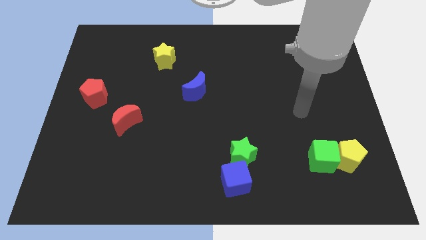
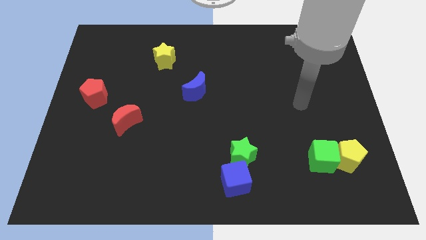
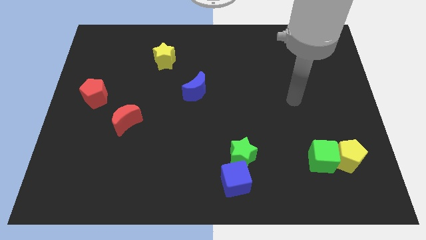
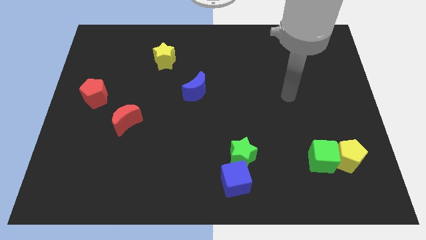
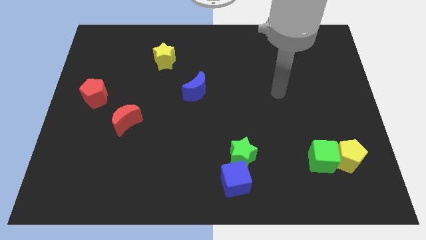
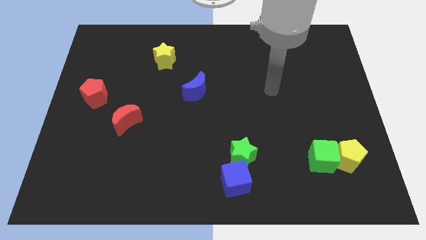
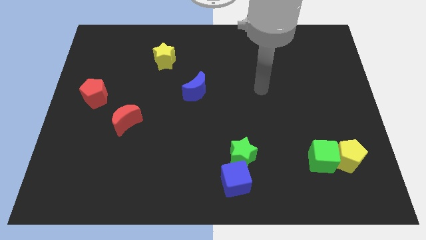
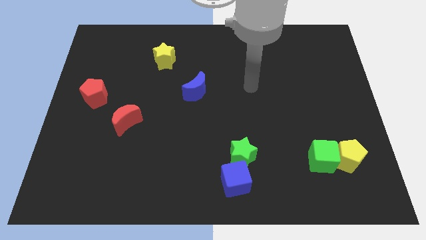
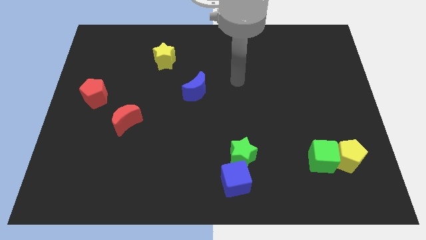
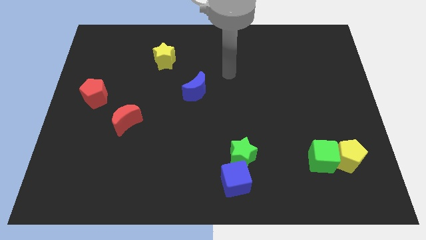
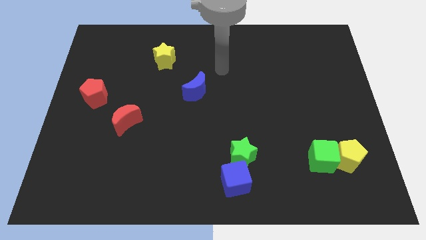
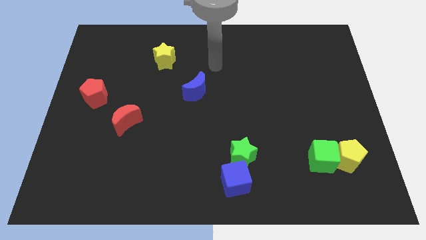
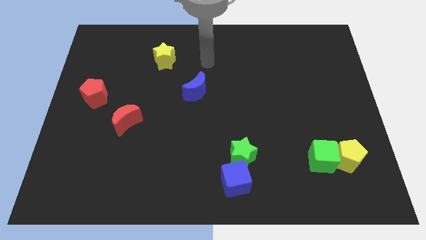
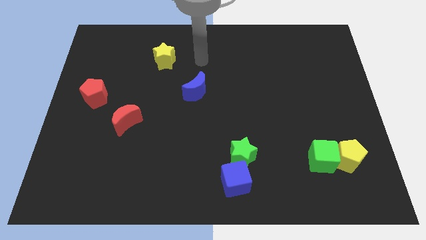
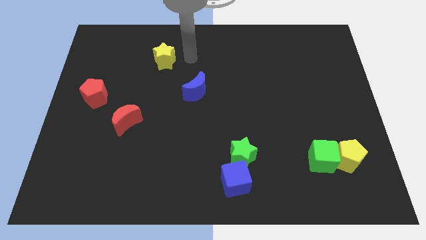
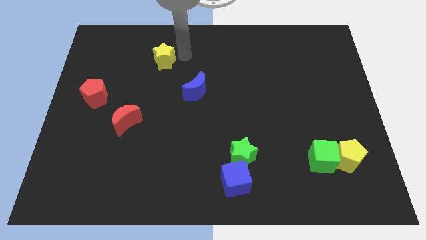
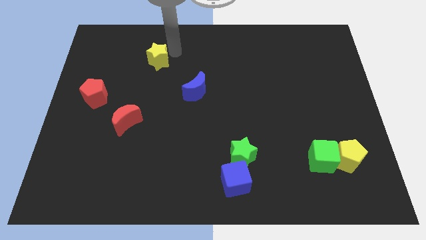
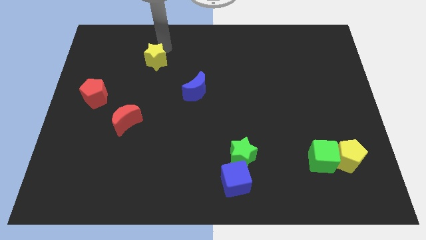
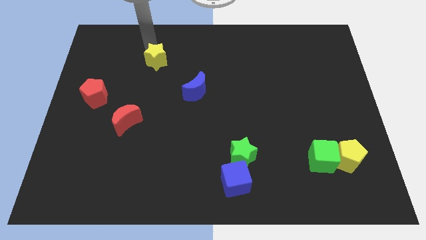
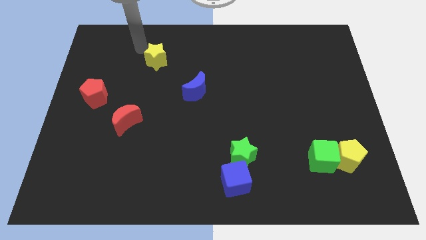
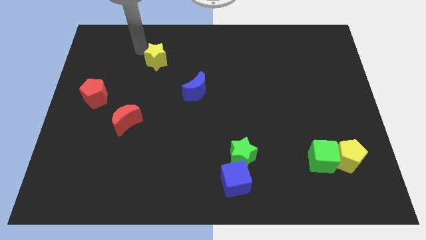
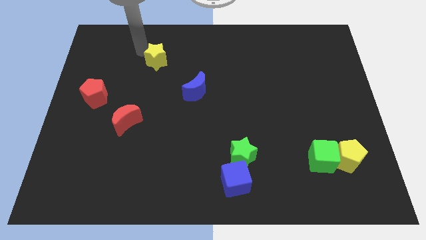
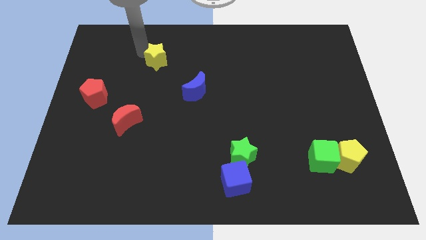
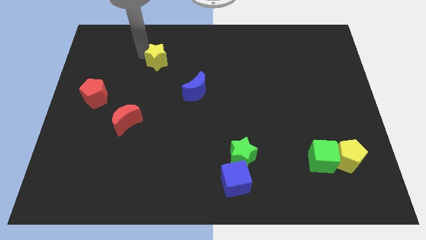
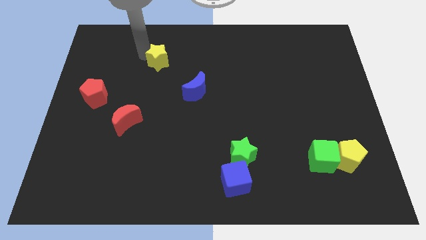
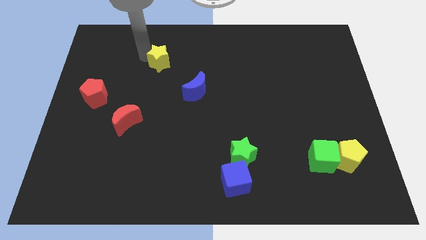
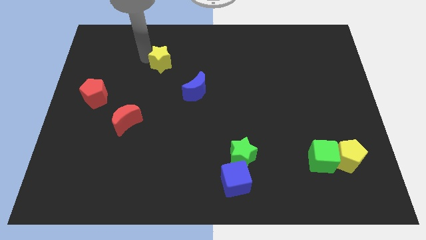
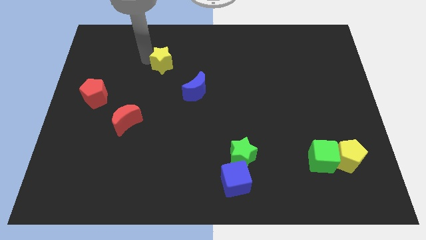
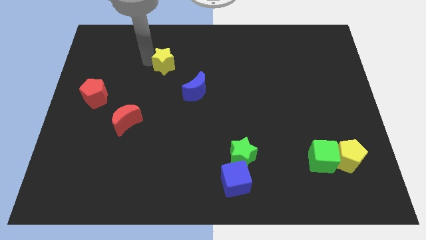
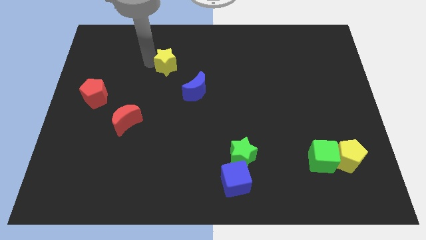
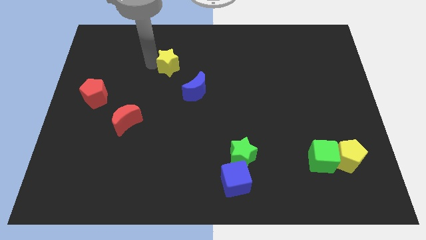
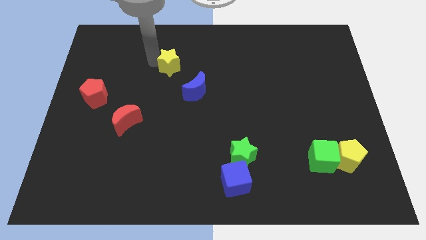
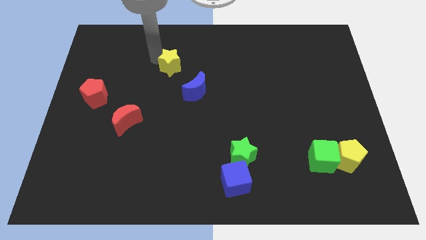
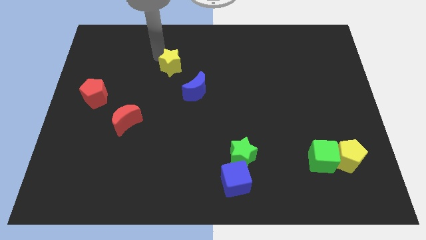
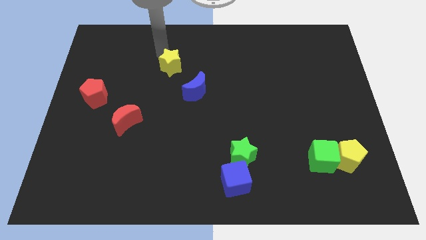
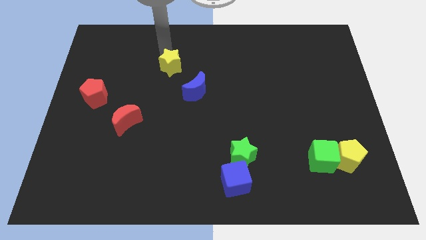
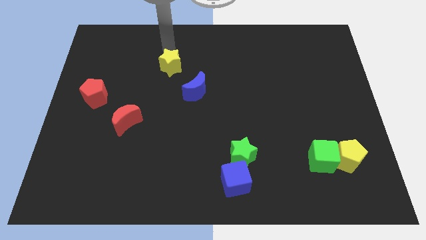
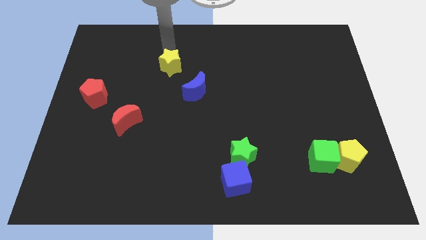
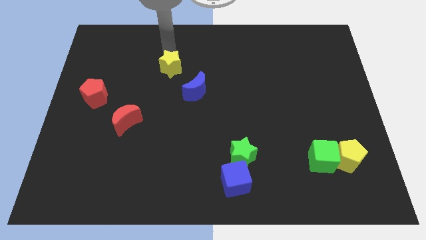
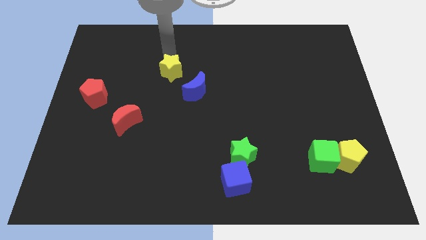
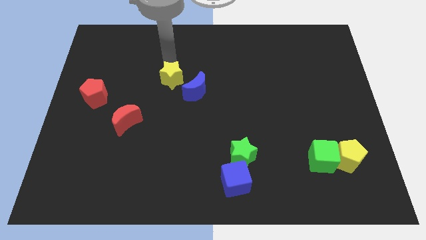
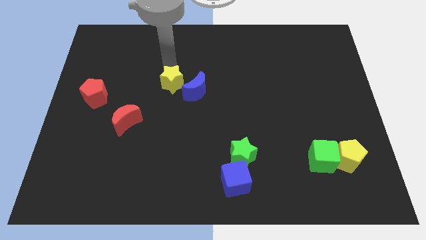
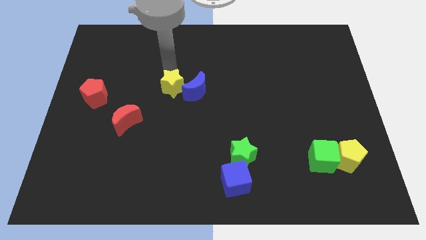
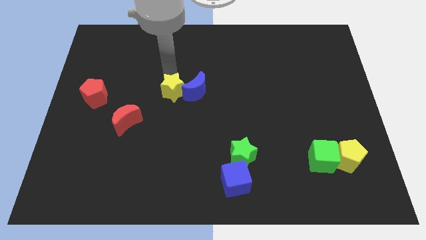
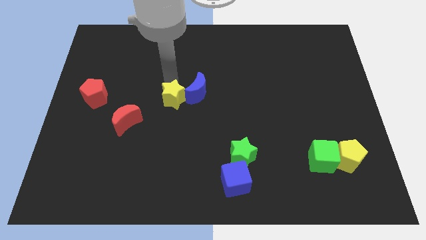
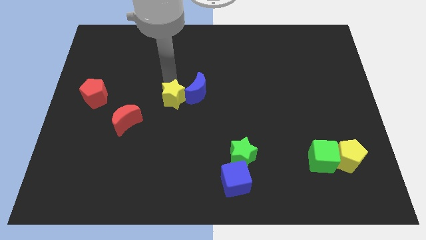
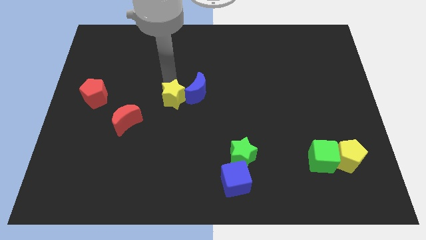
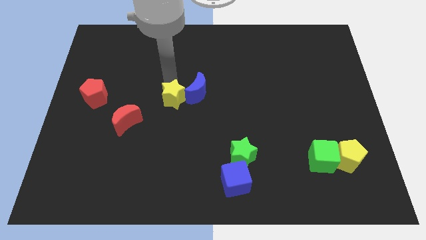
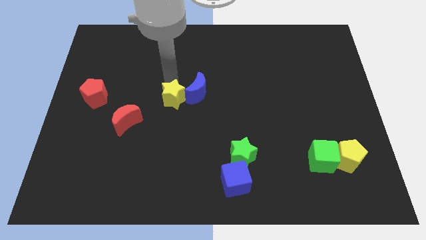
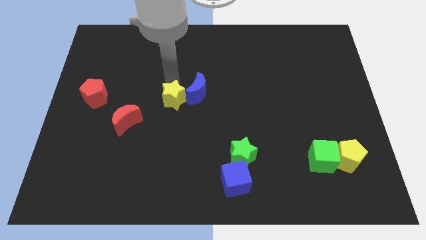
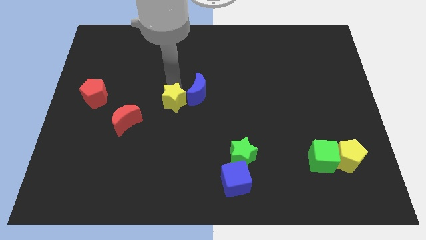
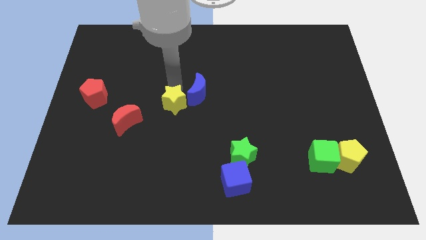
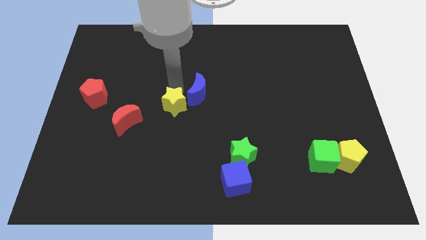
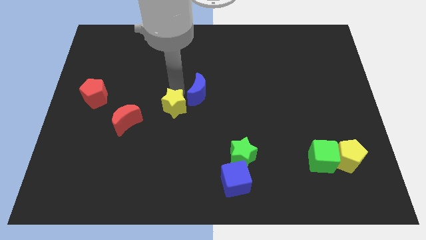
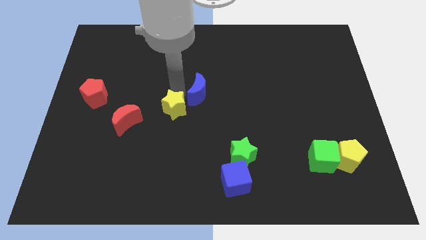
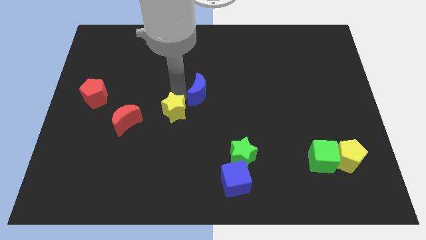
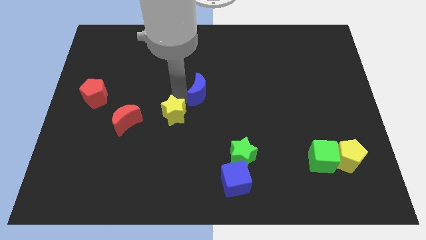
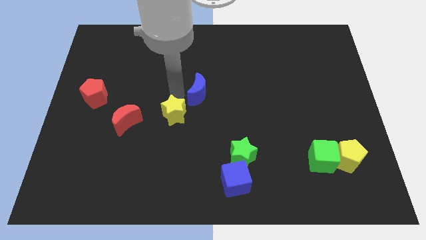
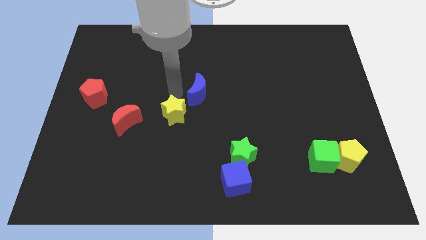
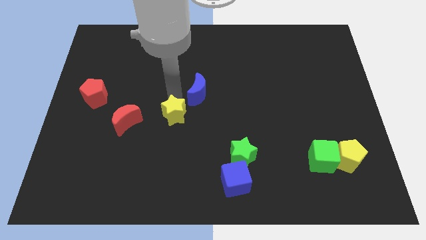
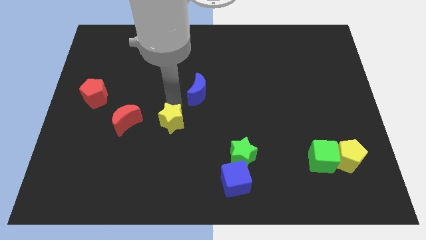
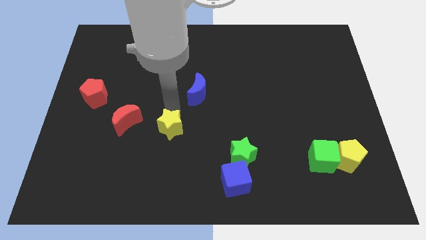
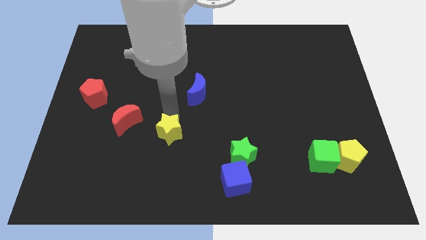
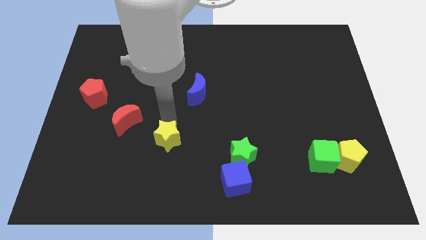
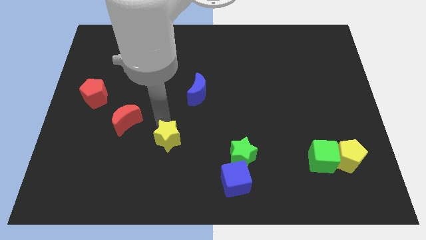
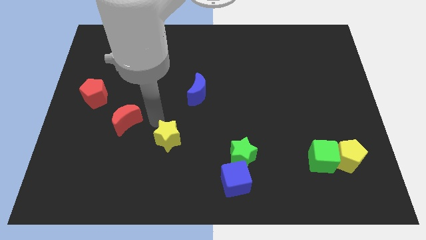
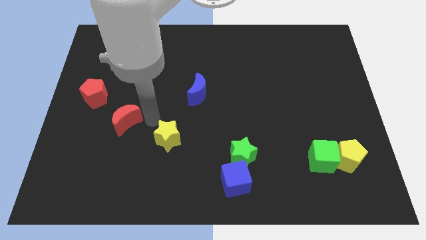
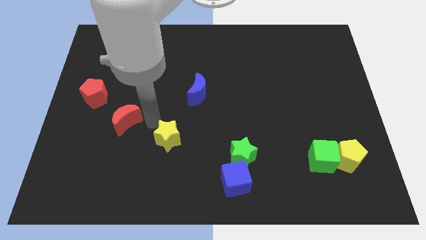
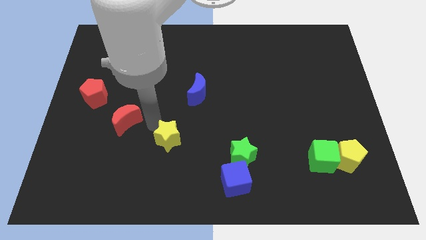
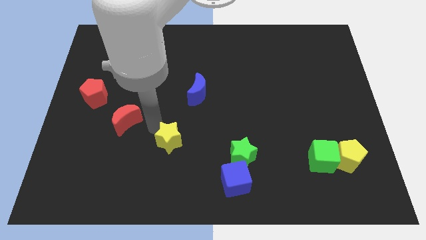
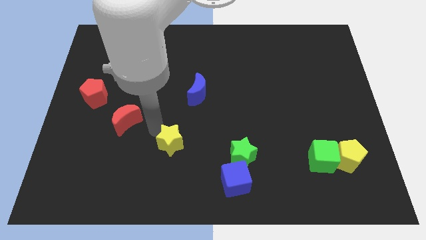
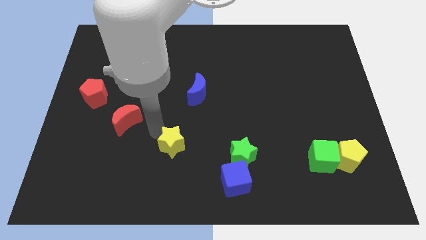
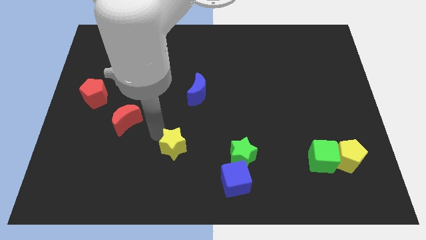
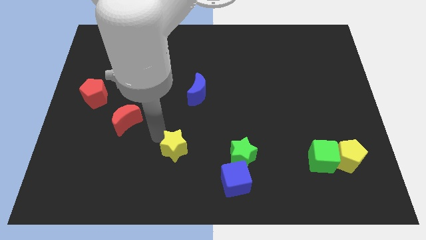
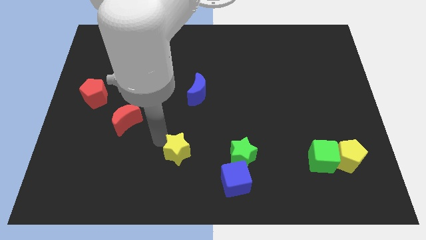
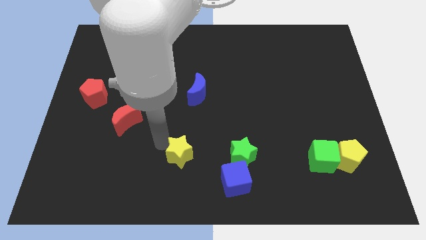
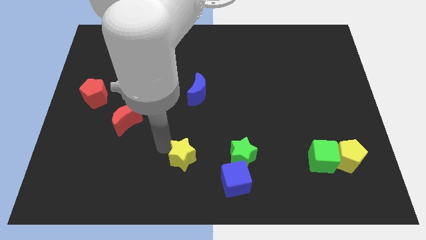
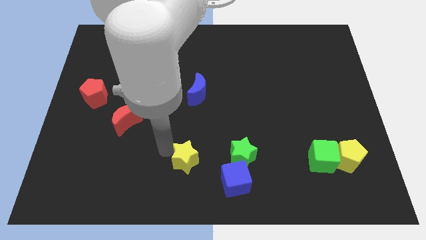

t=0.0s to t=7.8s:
move the yellow star to the bottom side
